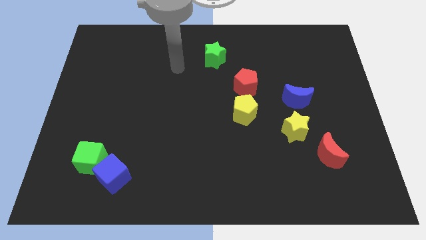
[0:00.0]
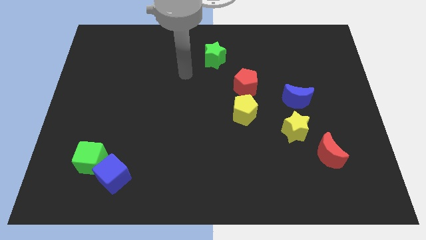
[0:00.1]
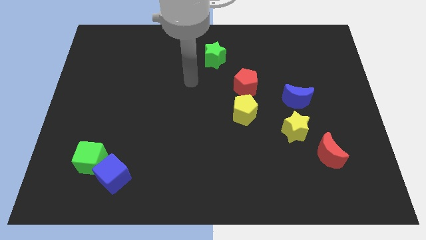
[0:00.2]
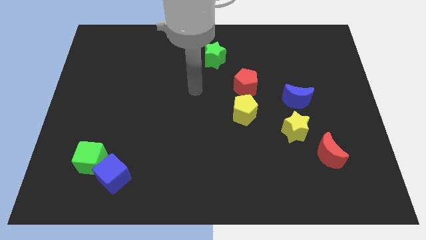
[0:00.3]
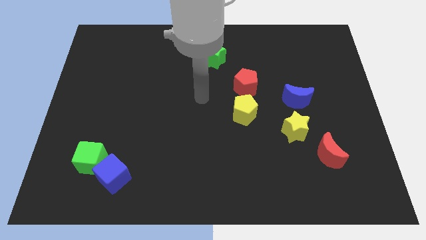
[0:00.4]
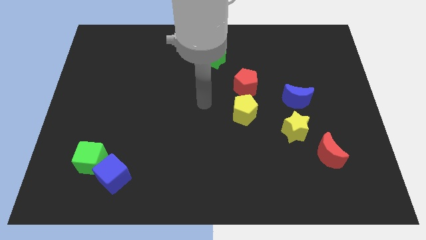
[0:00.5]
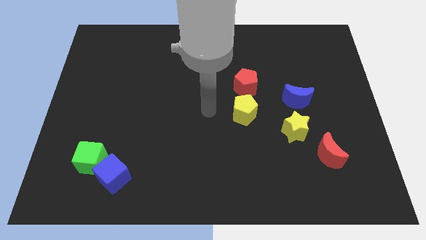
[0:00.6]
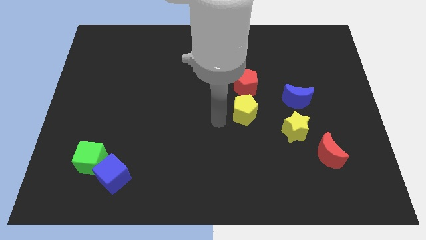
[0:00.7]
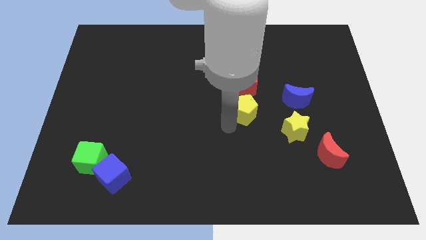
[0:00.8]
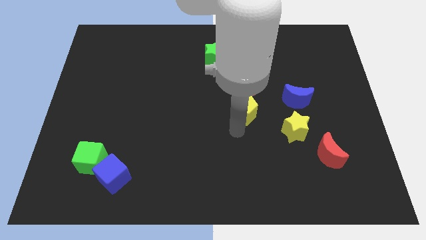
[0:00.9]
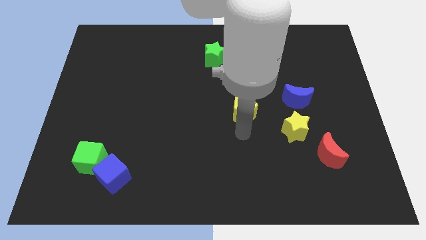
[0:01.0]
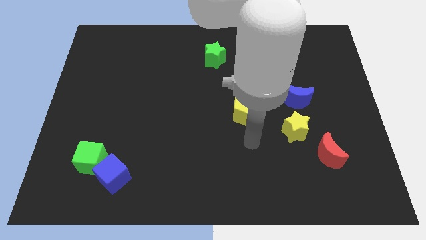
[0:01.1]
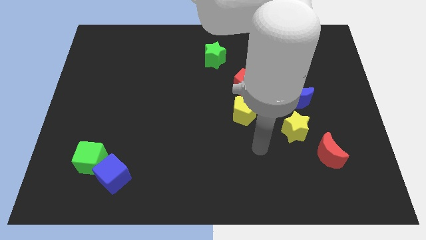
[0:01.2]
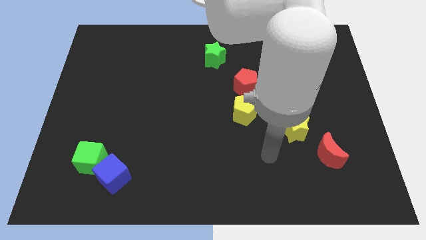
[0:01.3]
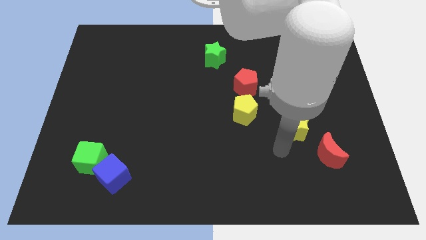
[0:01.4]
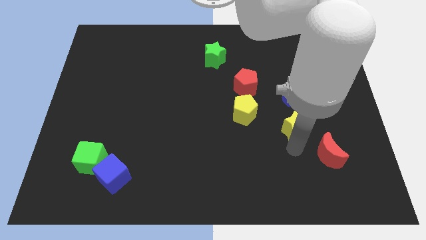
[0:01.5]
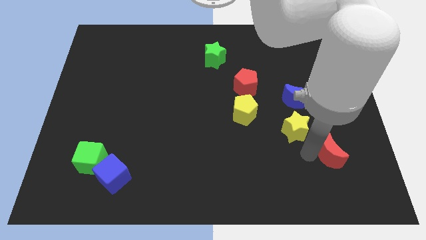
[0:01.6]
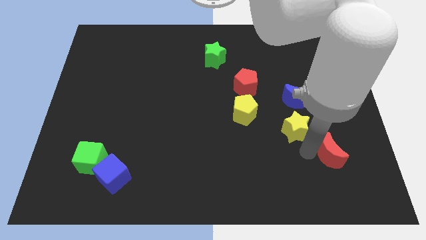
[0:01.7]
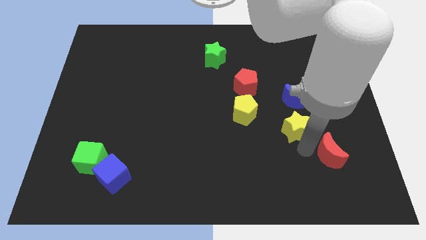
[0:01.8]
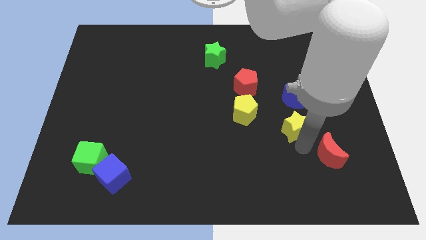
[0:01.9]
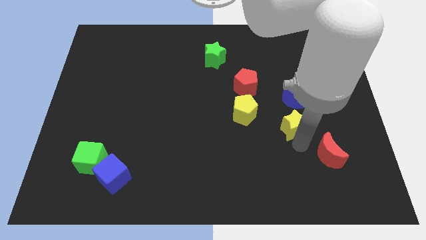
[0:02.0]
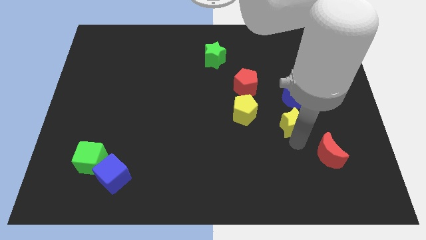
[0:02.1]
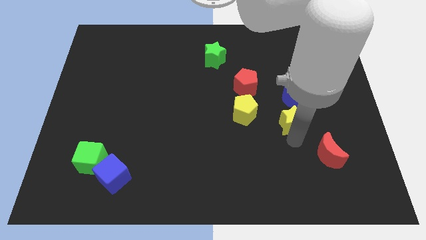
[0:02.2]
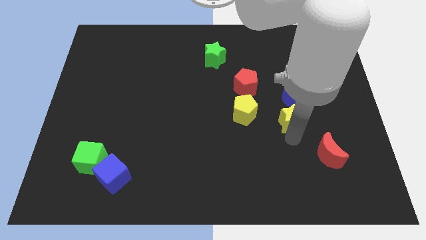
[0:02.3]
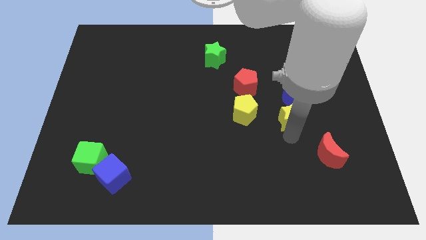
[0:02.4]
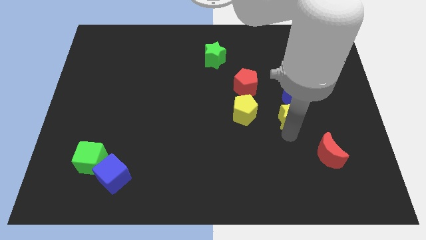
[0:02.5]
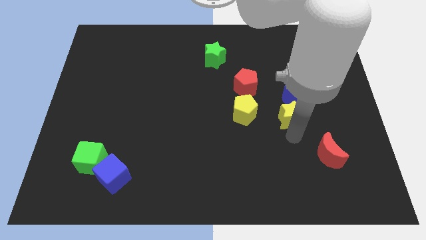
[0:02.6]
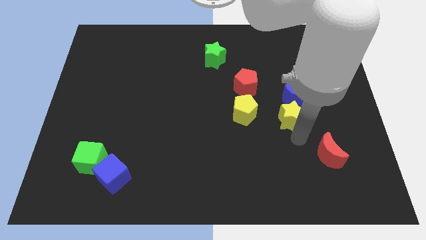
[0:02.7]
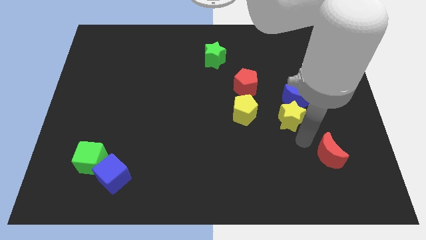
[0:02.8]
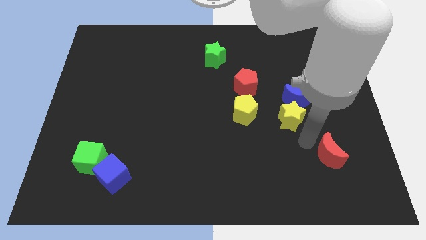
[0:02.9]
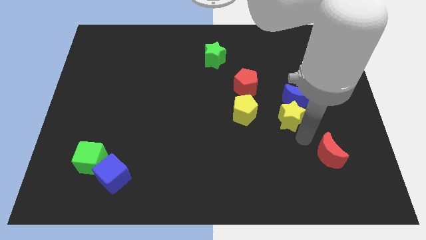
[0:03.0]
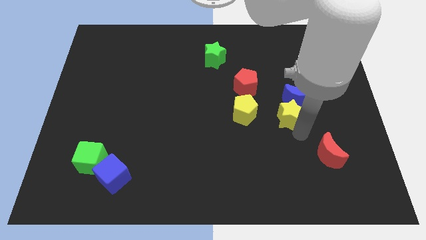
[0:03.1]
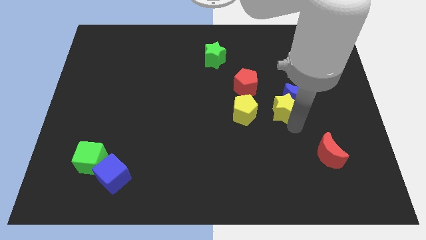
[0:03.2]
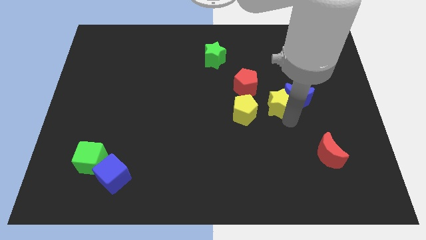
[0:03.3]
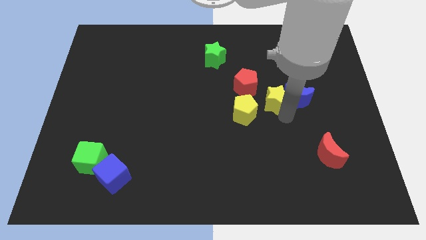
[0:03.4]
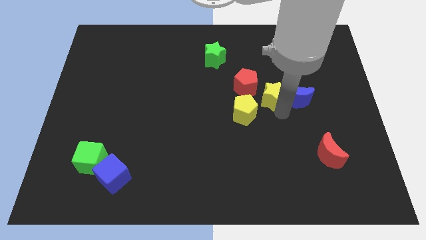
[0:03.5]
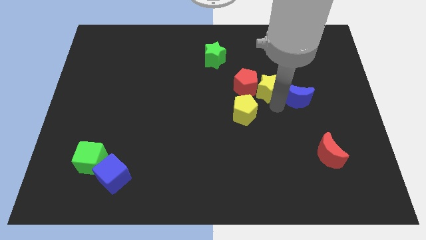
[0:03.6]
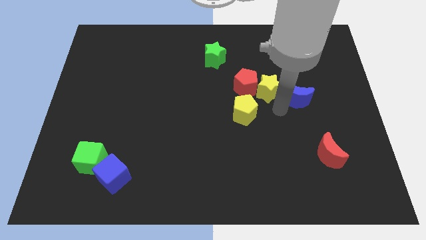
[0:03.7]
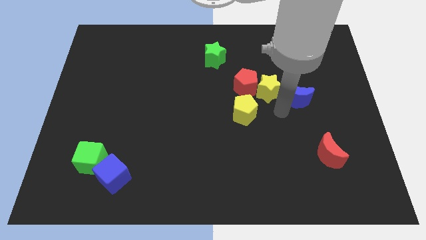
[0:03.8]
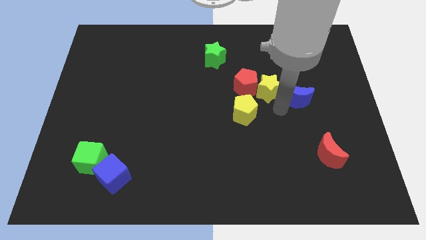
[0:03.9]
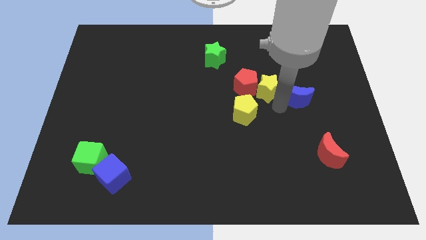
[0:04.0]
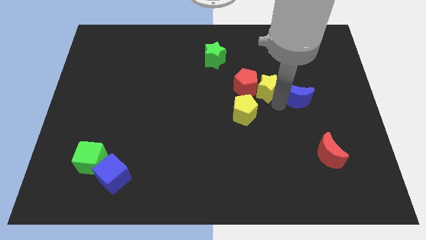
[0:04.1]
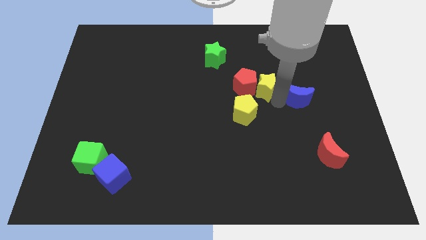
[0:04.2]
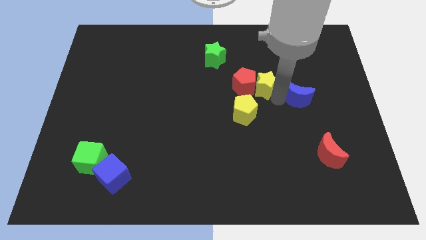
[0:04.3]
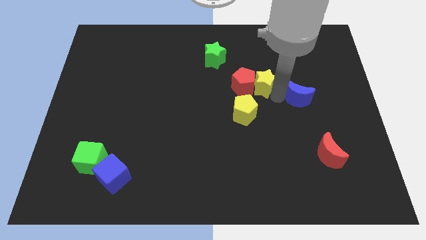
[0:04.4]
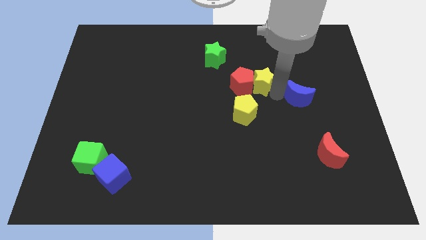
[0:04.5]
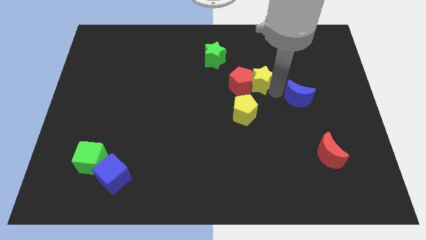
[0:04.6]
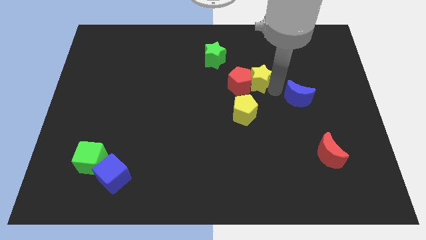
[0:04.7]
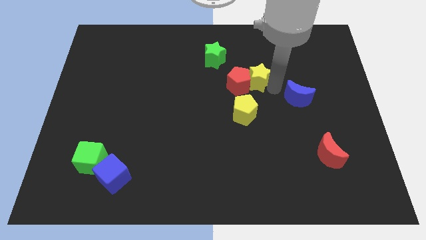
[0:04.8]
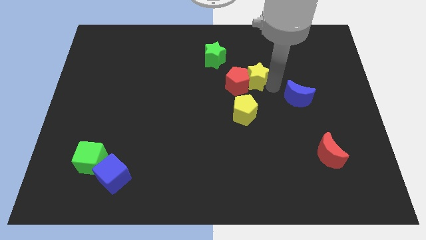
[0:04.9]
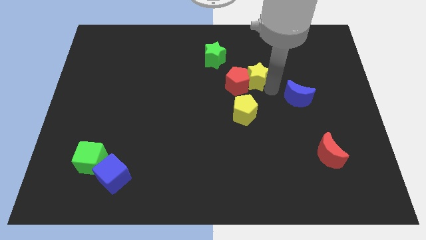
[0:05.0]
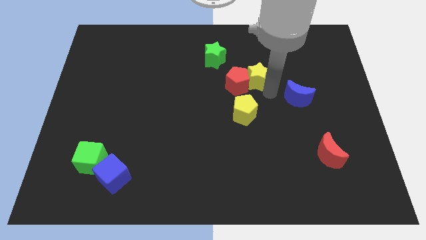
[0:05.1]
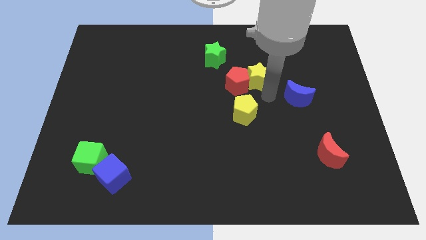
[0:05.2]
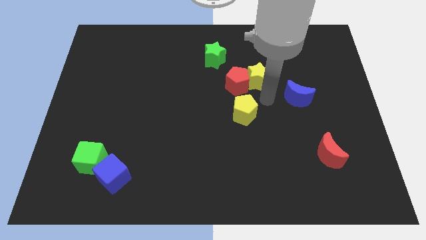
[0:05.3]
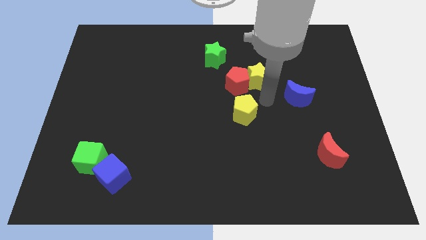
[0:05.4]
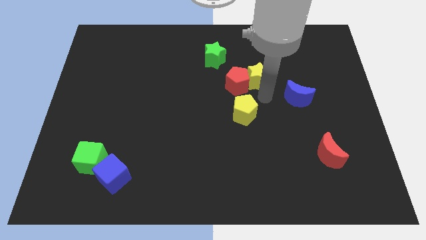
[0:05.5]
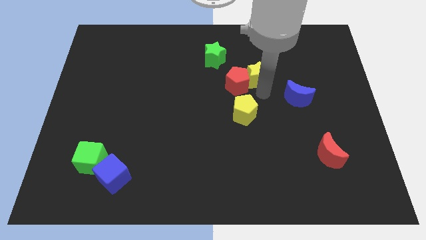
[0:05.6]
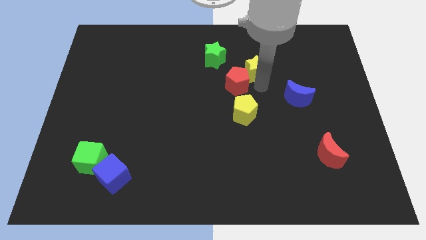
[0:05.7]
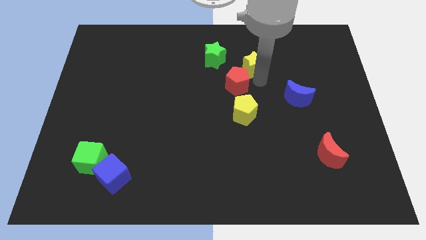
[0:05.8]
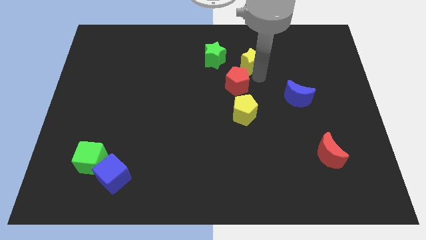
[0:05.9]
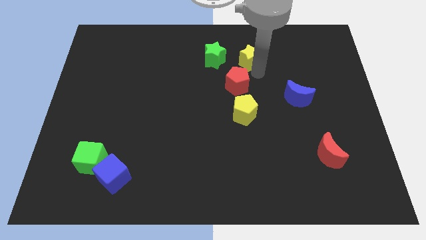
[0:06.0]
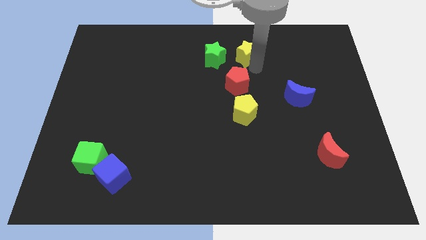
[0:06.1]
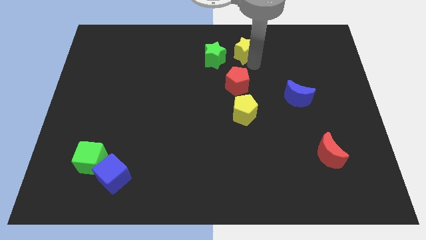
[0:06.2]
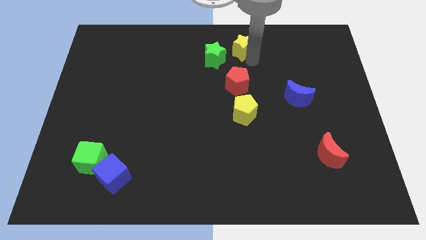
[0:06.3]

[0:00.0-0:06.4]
put the yellow star to the top side

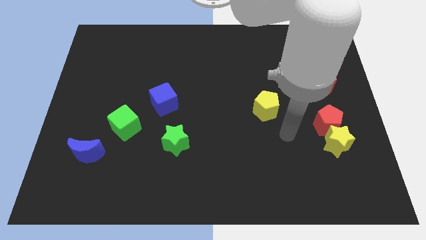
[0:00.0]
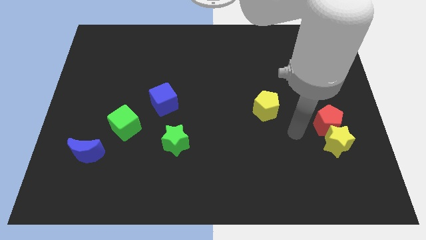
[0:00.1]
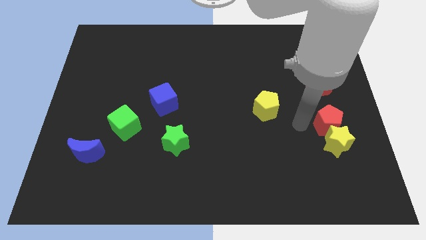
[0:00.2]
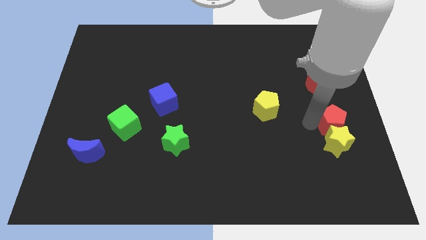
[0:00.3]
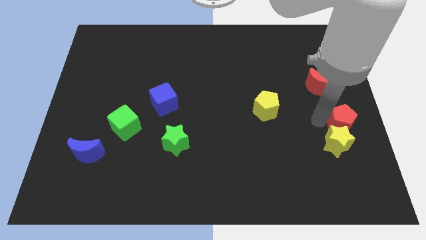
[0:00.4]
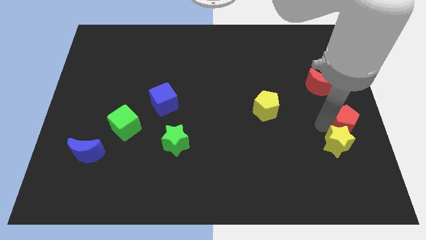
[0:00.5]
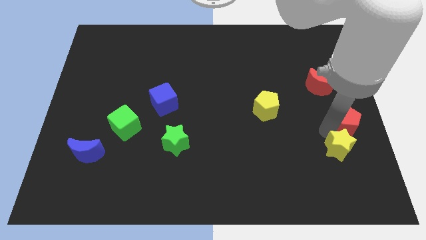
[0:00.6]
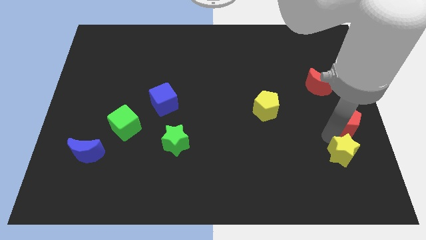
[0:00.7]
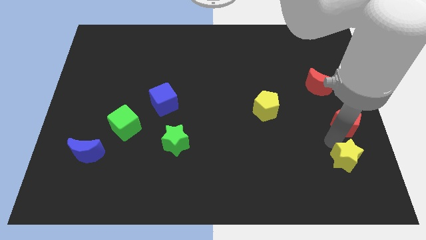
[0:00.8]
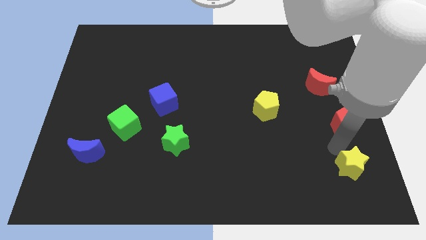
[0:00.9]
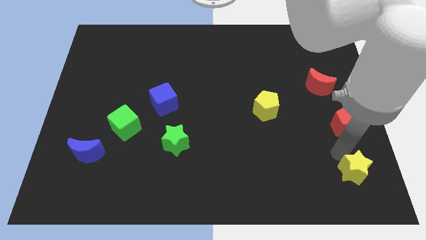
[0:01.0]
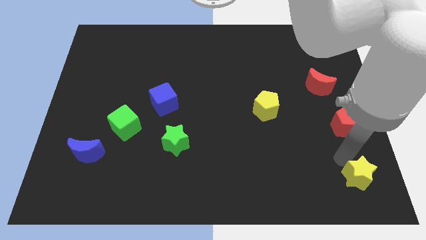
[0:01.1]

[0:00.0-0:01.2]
slide the yellow star to the lower right corner
